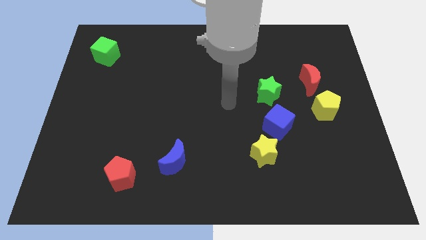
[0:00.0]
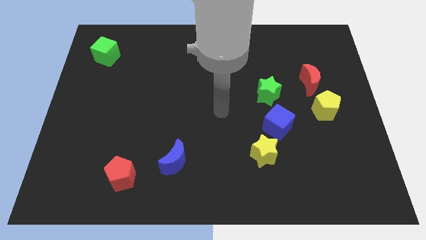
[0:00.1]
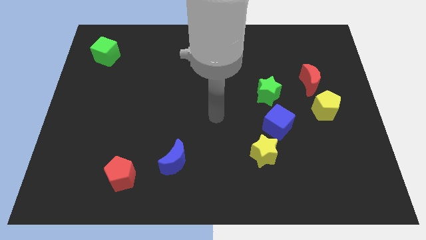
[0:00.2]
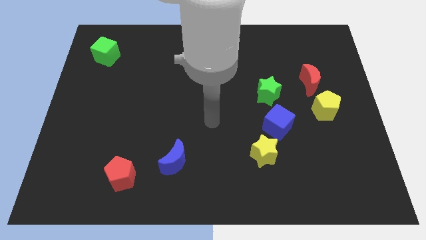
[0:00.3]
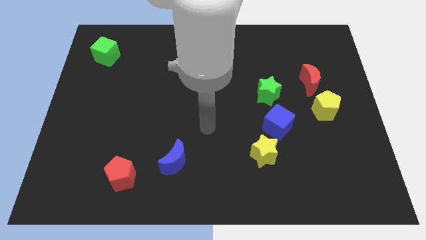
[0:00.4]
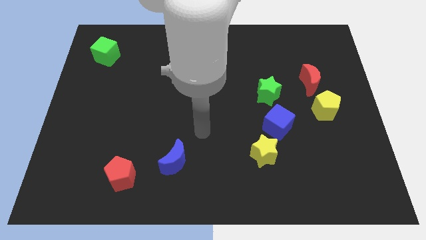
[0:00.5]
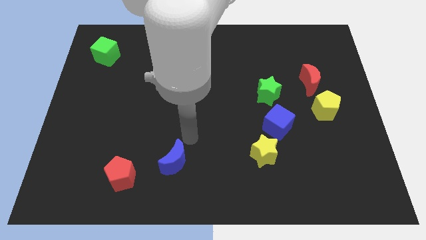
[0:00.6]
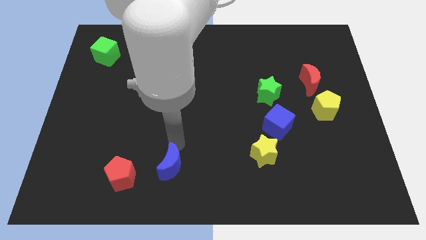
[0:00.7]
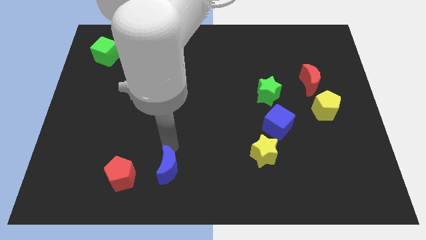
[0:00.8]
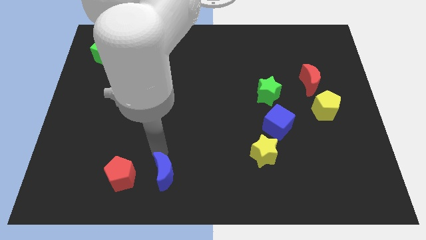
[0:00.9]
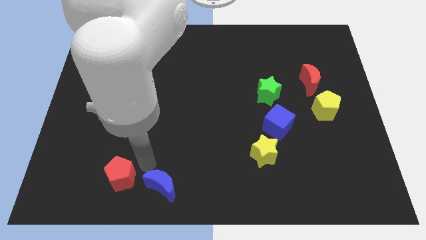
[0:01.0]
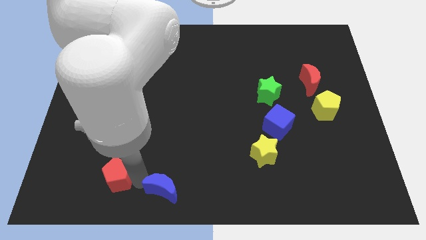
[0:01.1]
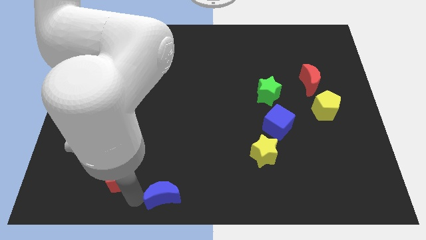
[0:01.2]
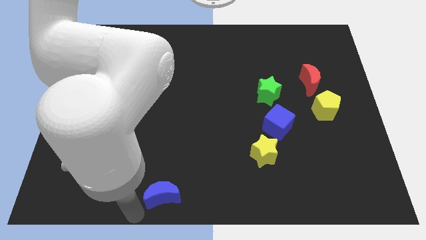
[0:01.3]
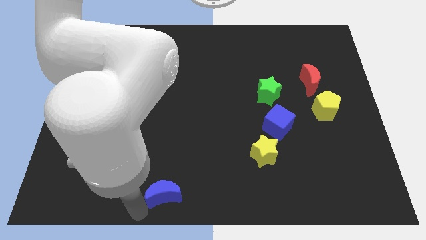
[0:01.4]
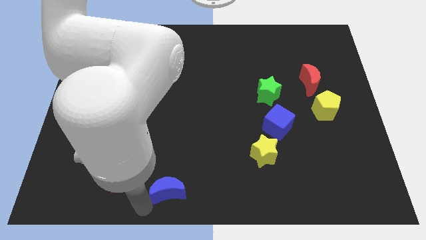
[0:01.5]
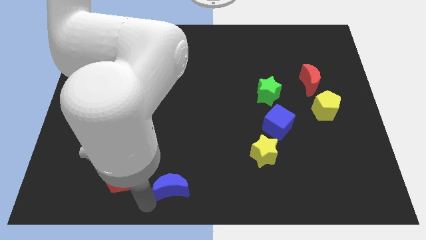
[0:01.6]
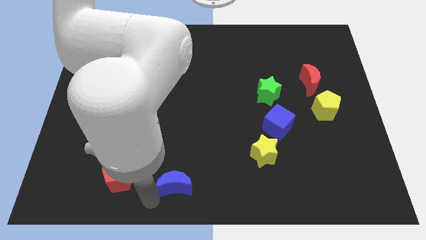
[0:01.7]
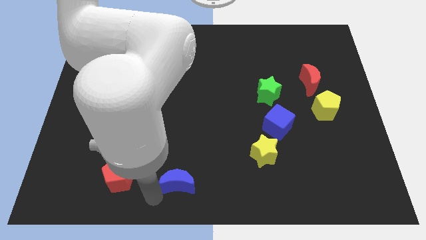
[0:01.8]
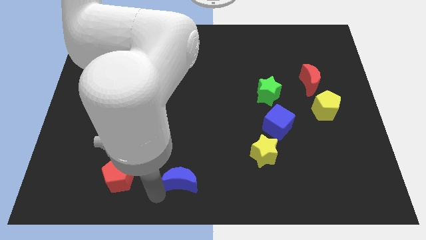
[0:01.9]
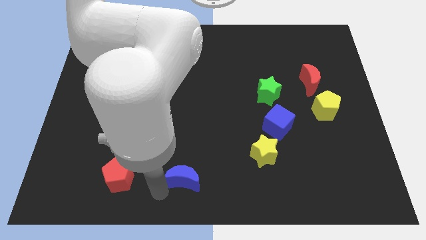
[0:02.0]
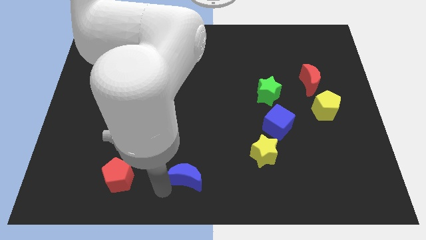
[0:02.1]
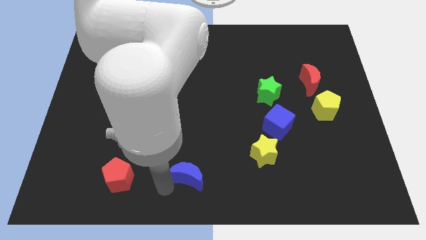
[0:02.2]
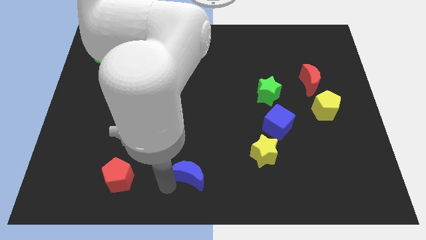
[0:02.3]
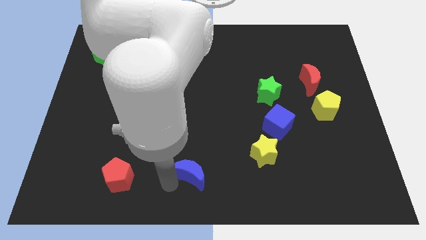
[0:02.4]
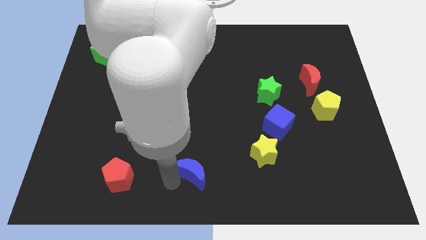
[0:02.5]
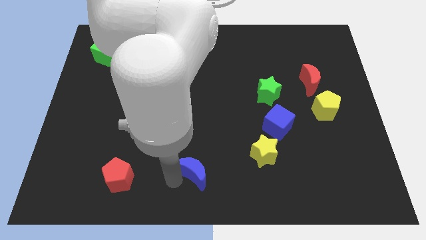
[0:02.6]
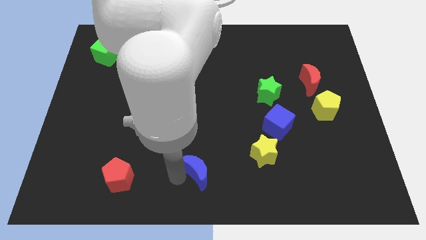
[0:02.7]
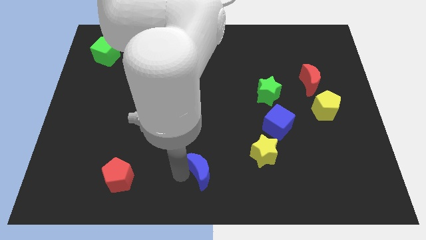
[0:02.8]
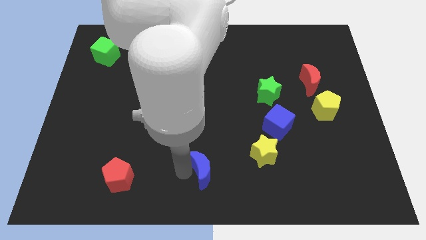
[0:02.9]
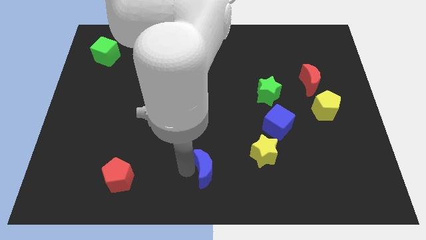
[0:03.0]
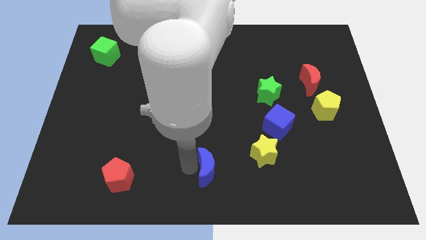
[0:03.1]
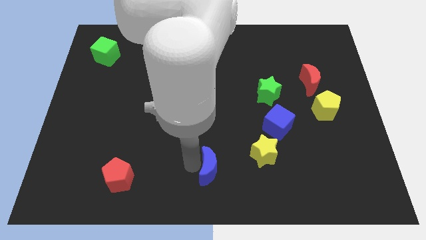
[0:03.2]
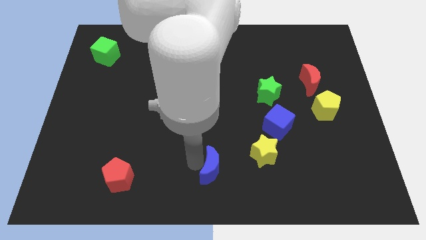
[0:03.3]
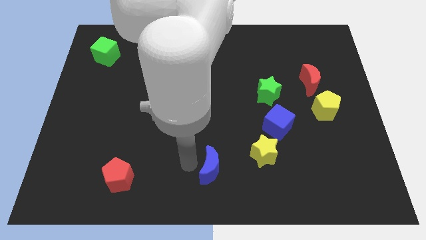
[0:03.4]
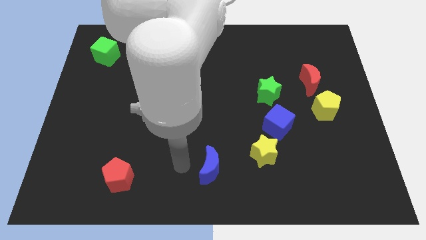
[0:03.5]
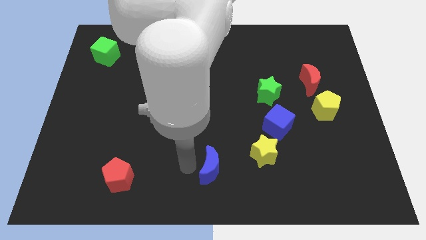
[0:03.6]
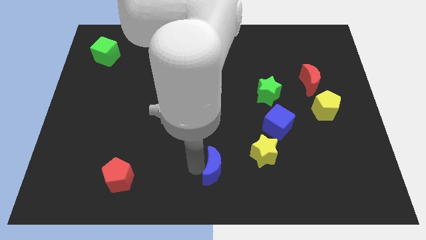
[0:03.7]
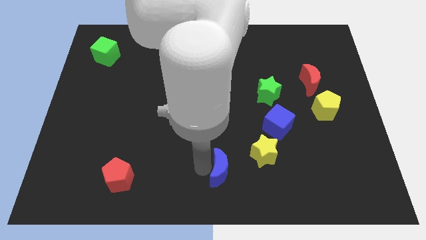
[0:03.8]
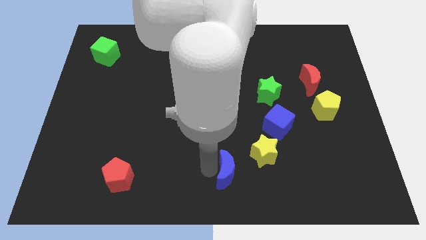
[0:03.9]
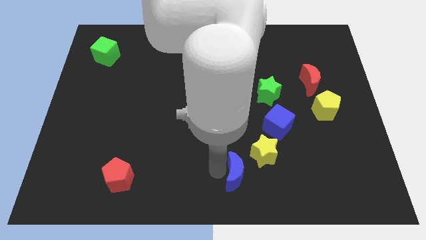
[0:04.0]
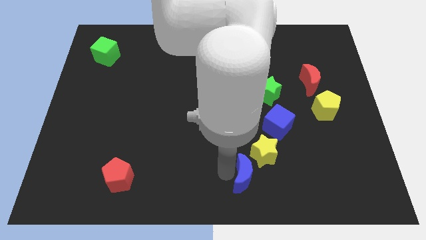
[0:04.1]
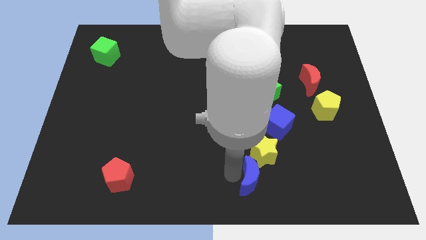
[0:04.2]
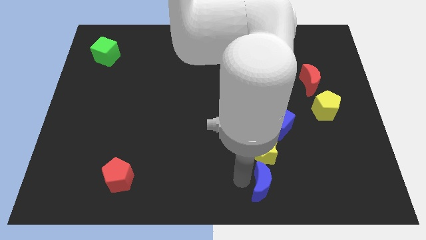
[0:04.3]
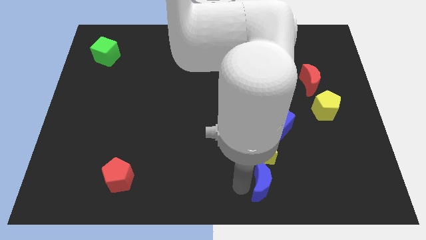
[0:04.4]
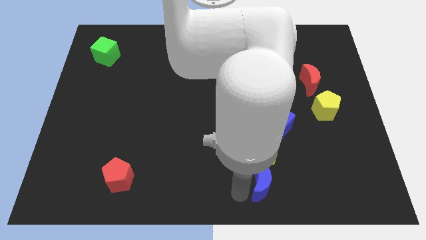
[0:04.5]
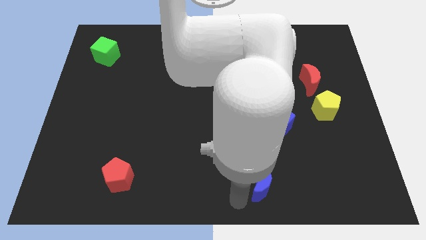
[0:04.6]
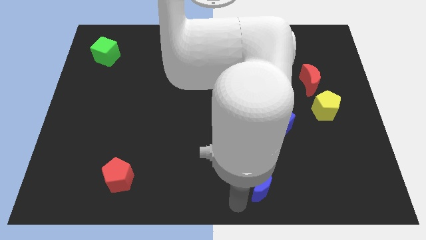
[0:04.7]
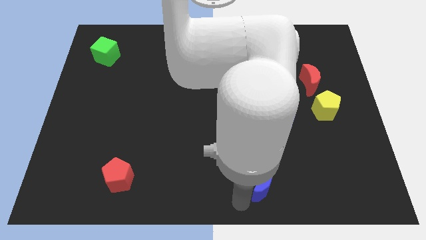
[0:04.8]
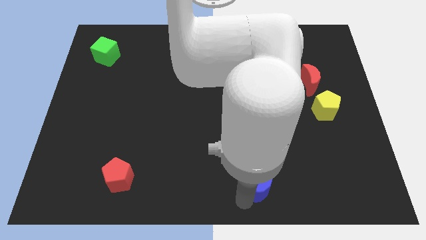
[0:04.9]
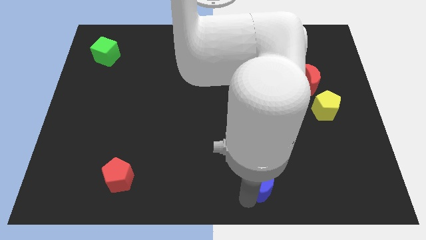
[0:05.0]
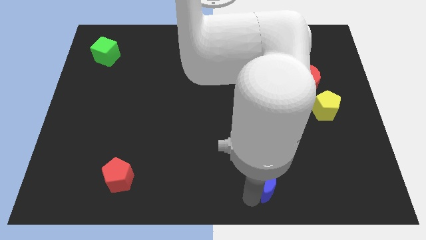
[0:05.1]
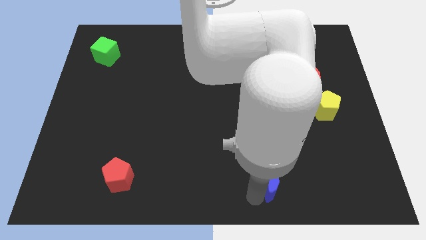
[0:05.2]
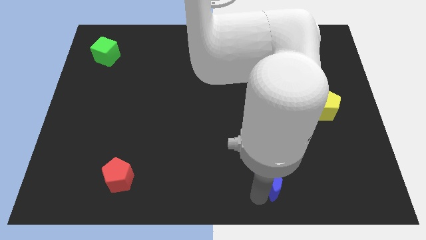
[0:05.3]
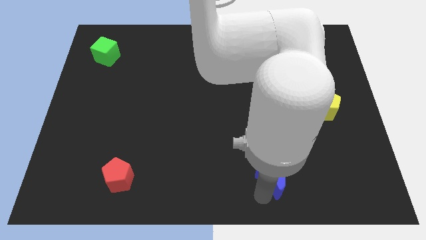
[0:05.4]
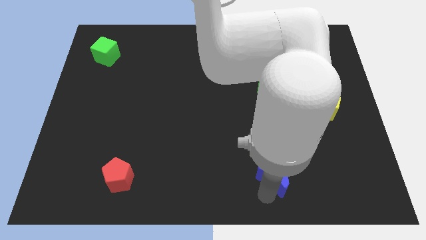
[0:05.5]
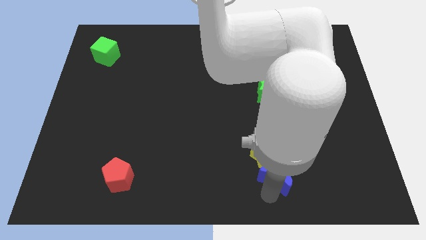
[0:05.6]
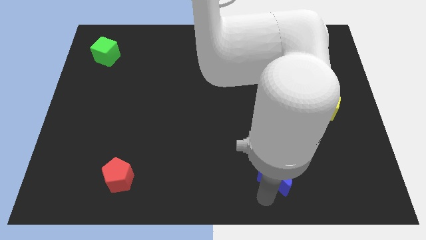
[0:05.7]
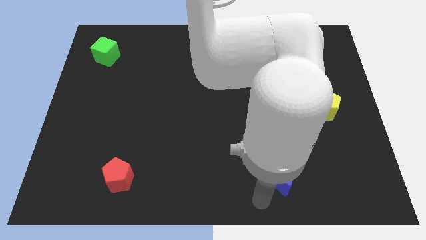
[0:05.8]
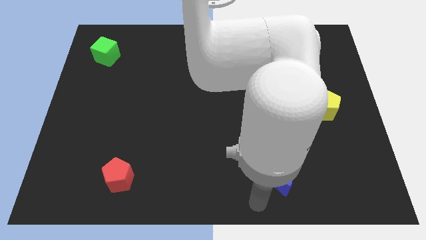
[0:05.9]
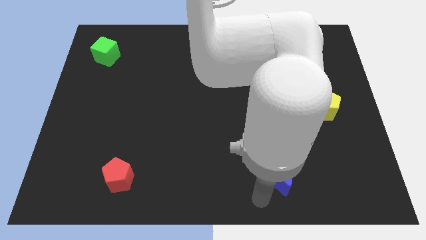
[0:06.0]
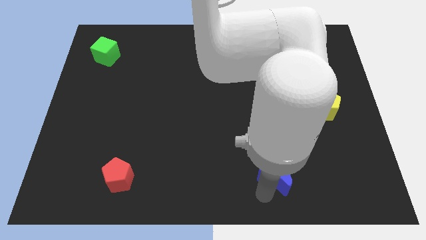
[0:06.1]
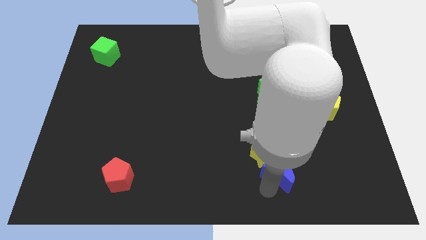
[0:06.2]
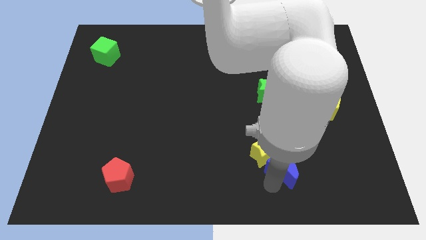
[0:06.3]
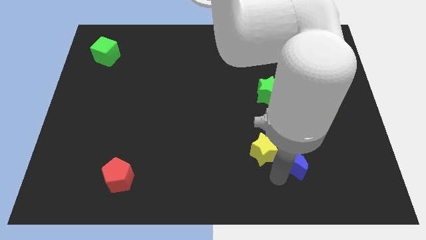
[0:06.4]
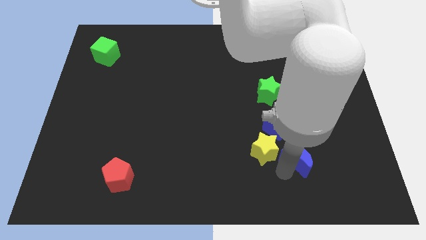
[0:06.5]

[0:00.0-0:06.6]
put the blue moon diagonally down and to the right of the blue cube

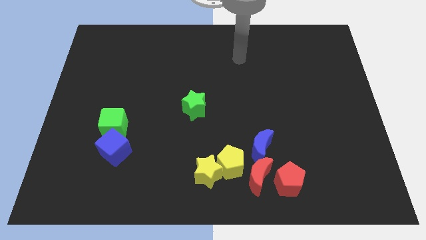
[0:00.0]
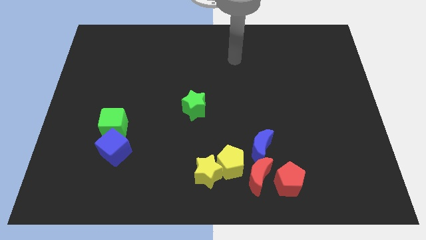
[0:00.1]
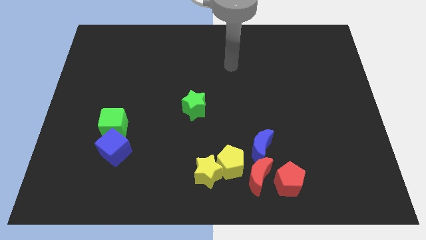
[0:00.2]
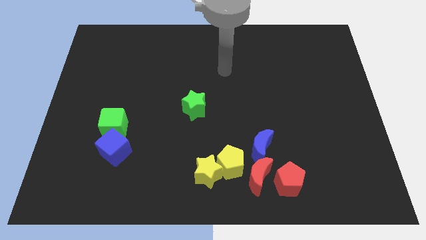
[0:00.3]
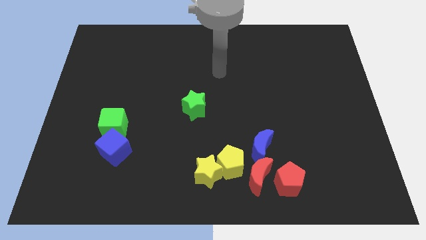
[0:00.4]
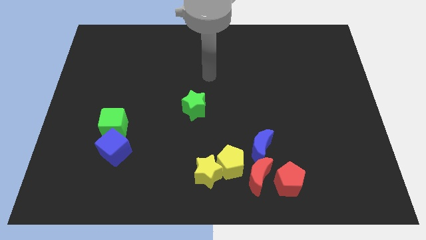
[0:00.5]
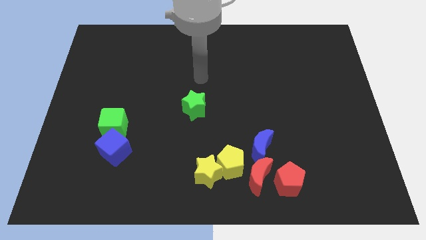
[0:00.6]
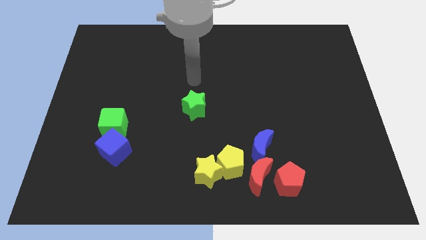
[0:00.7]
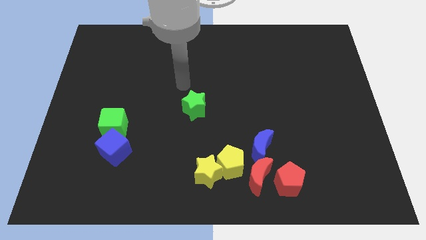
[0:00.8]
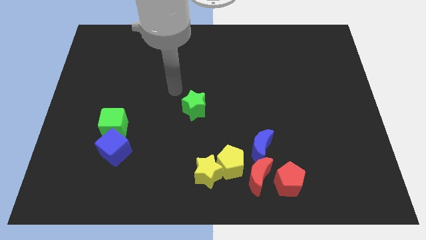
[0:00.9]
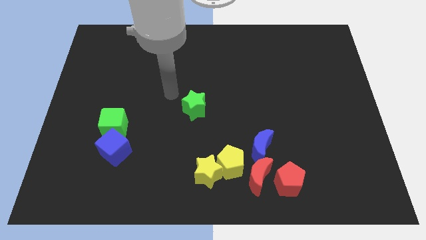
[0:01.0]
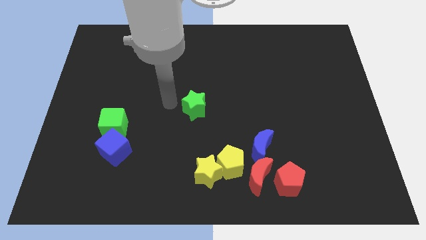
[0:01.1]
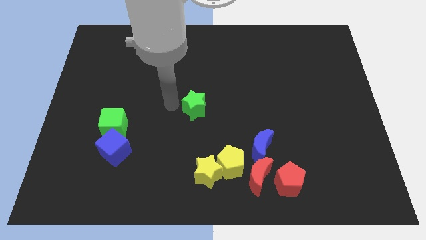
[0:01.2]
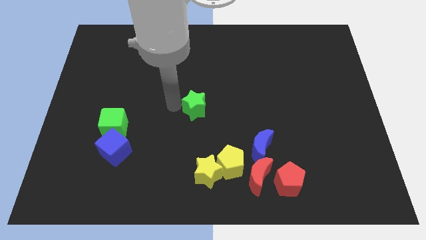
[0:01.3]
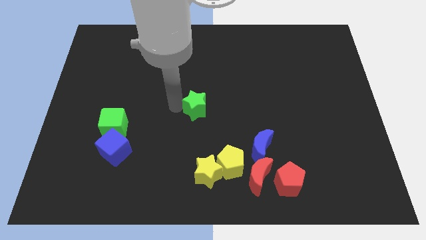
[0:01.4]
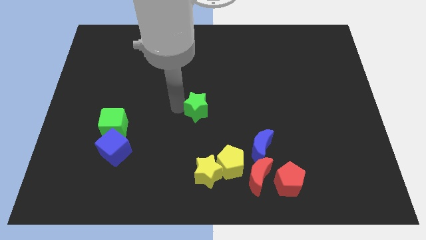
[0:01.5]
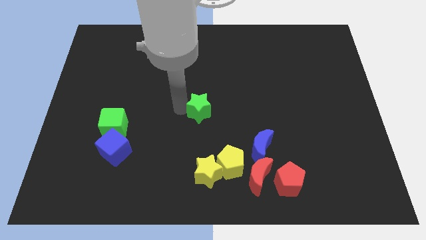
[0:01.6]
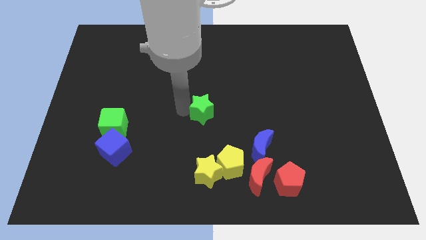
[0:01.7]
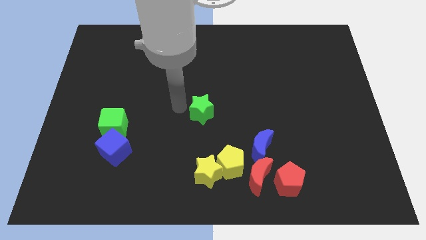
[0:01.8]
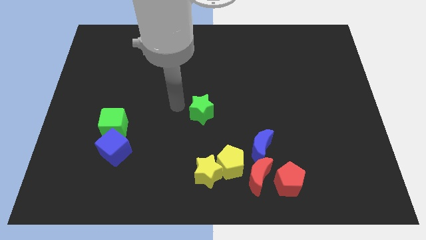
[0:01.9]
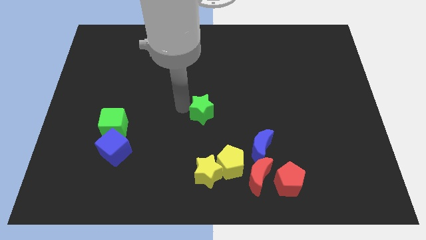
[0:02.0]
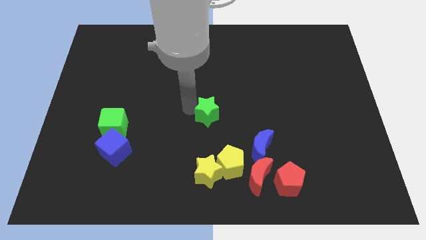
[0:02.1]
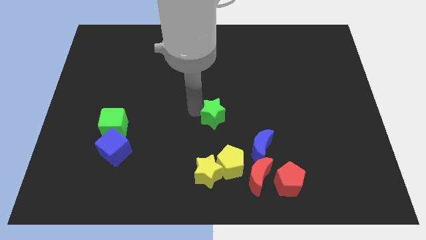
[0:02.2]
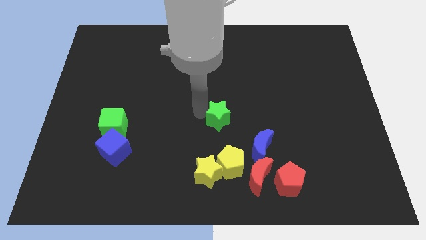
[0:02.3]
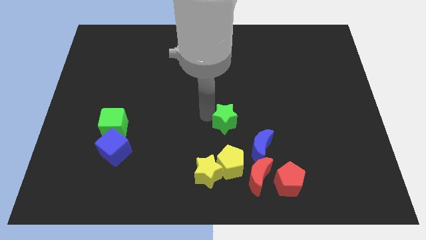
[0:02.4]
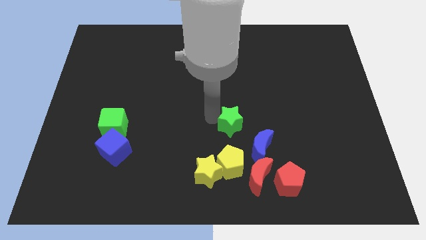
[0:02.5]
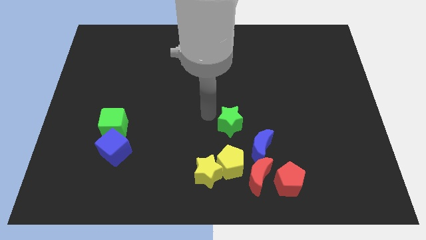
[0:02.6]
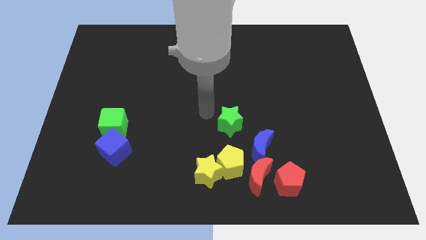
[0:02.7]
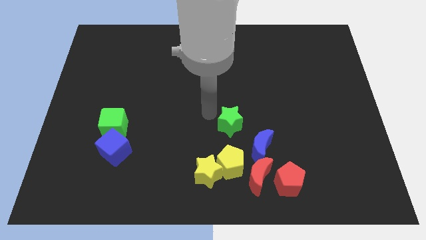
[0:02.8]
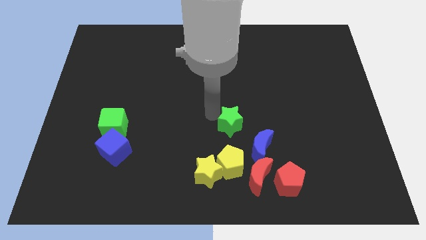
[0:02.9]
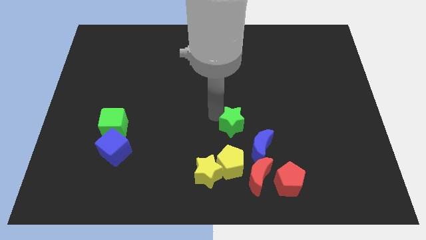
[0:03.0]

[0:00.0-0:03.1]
put the green star to the top of the red moon
